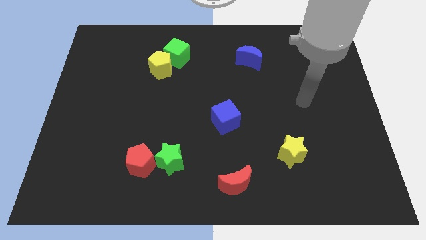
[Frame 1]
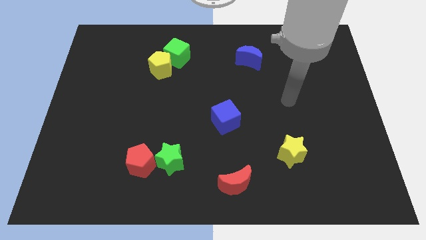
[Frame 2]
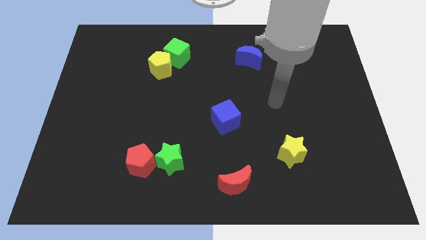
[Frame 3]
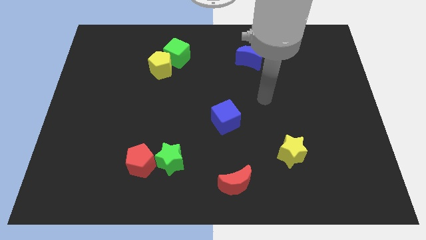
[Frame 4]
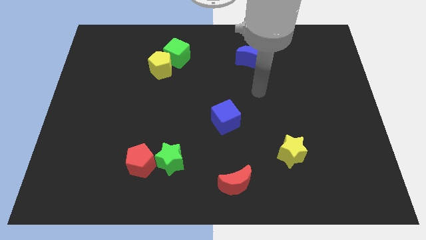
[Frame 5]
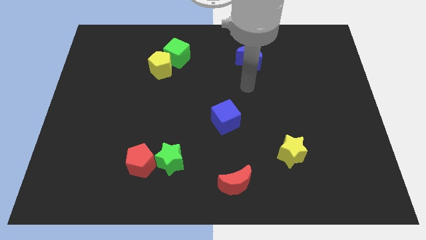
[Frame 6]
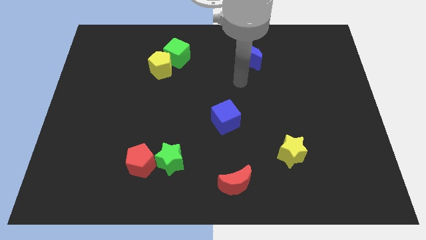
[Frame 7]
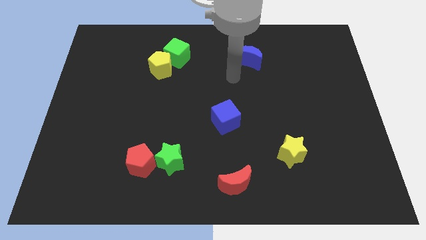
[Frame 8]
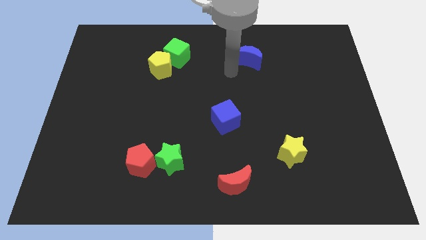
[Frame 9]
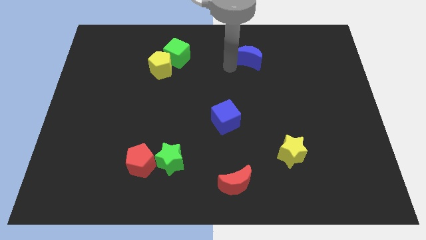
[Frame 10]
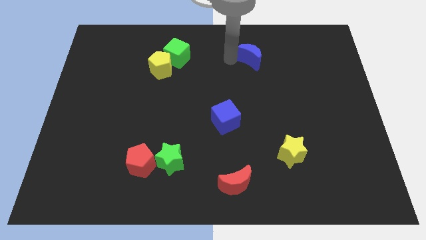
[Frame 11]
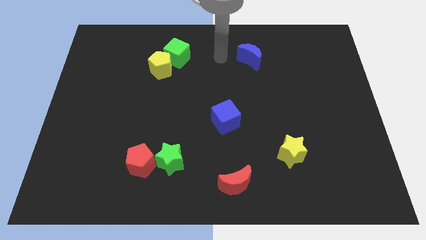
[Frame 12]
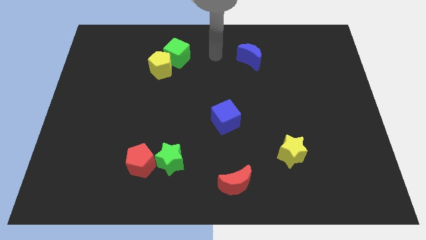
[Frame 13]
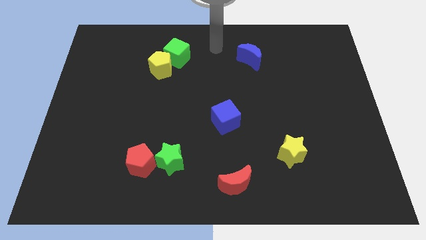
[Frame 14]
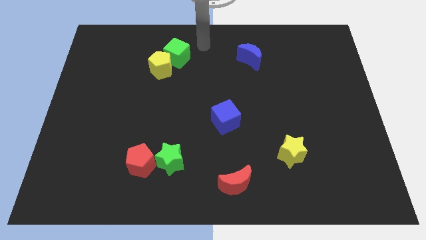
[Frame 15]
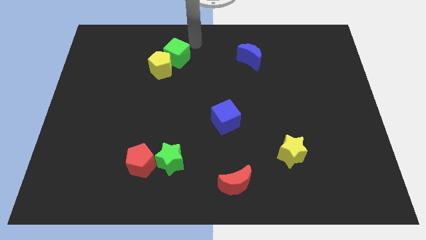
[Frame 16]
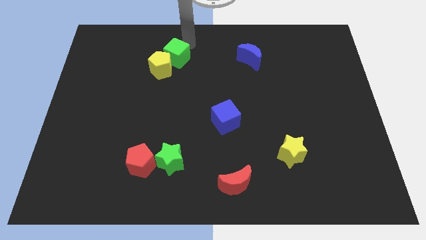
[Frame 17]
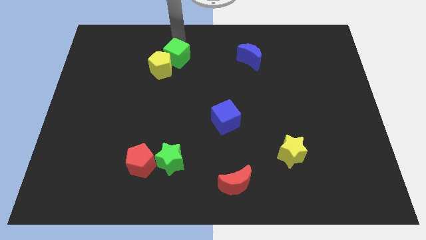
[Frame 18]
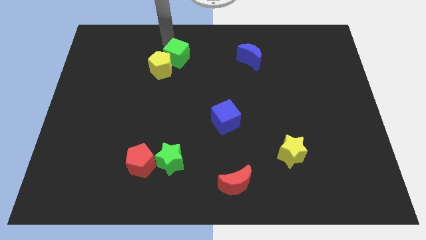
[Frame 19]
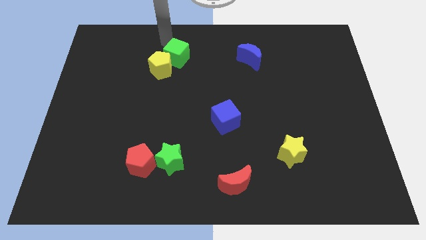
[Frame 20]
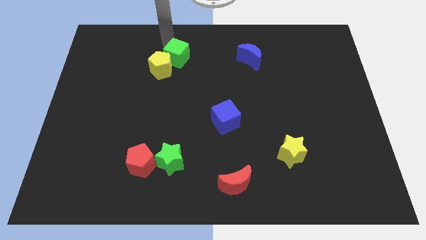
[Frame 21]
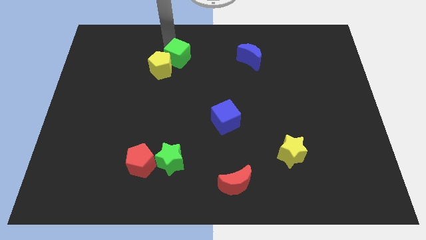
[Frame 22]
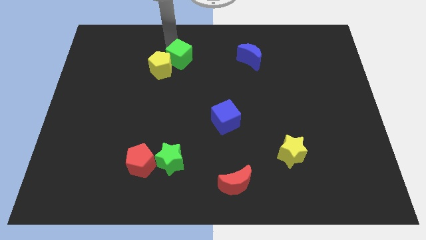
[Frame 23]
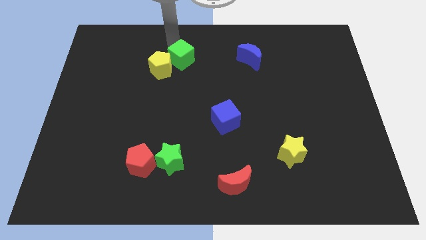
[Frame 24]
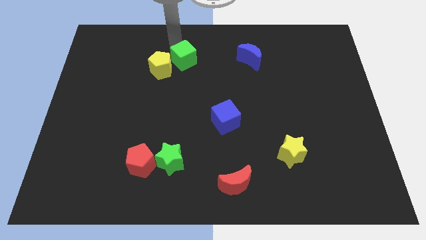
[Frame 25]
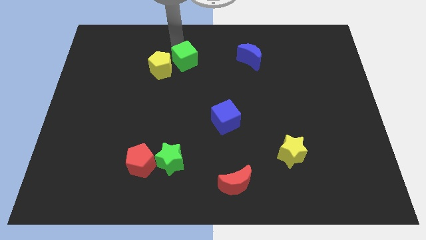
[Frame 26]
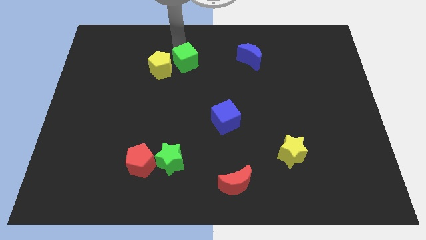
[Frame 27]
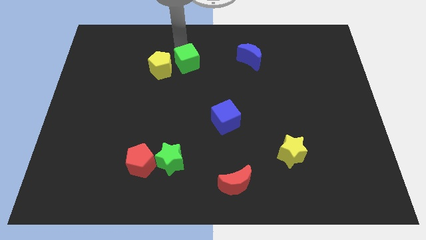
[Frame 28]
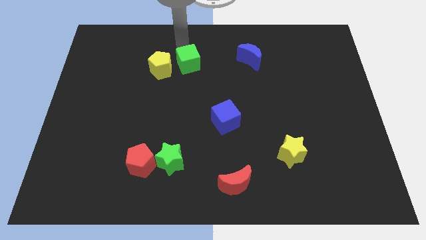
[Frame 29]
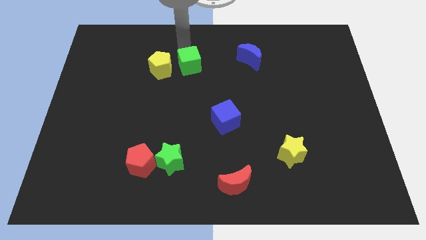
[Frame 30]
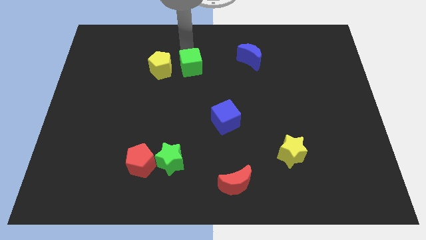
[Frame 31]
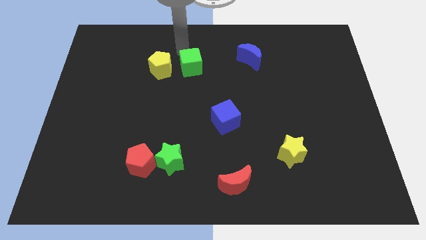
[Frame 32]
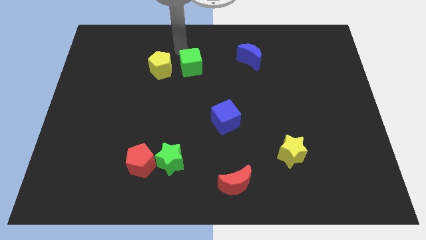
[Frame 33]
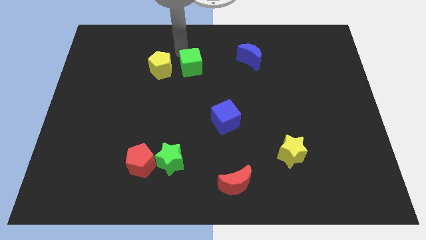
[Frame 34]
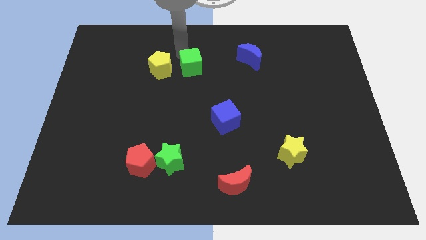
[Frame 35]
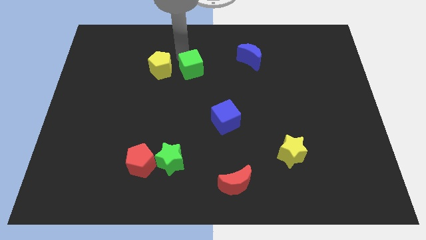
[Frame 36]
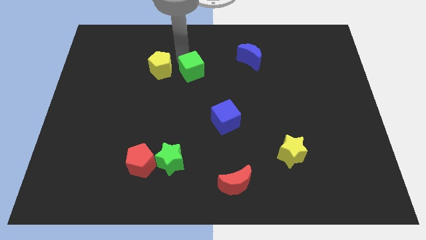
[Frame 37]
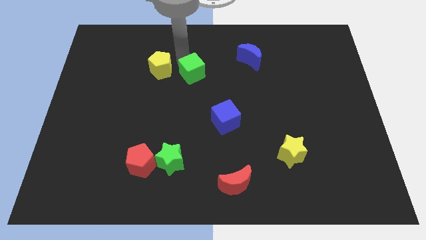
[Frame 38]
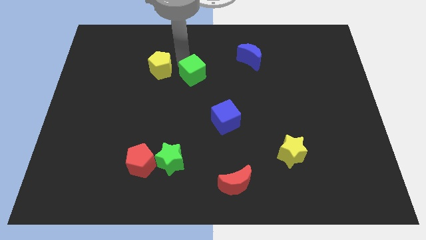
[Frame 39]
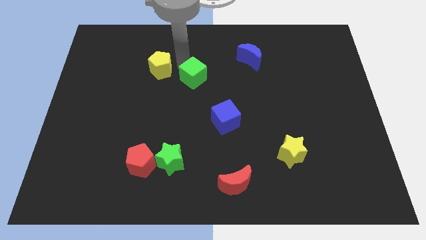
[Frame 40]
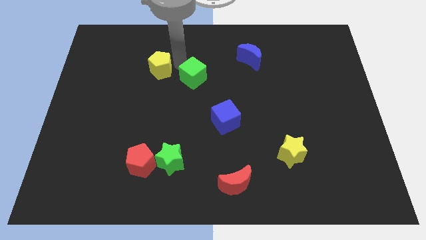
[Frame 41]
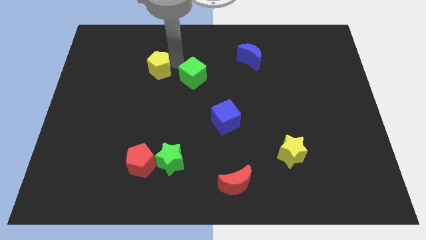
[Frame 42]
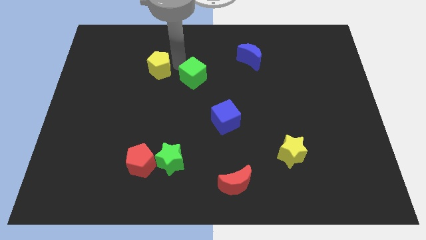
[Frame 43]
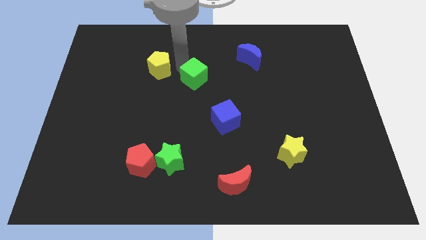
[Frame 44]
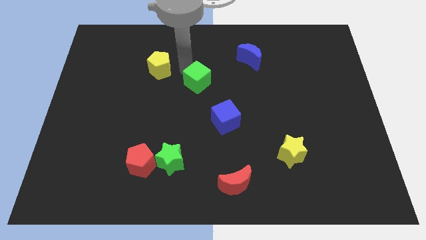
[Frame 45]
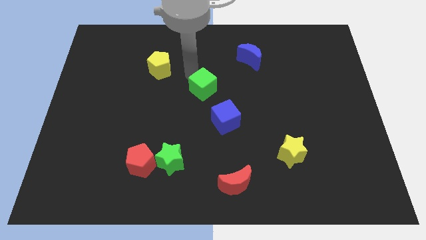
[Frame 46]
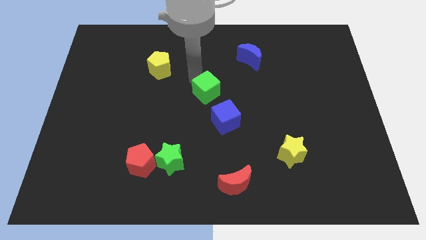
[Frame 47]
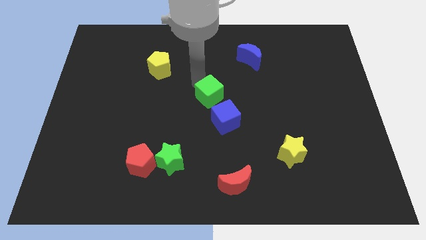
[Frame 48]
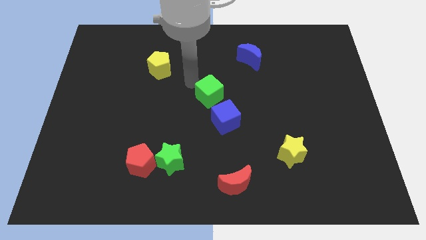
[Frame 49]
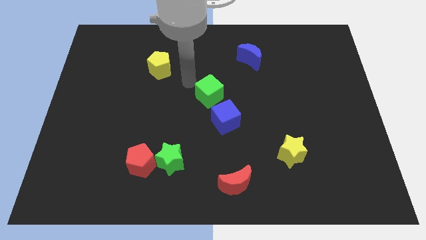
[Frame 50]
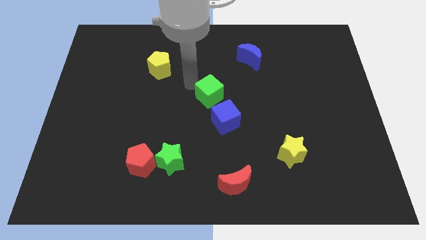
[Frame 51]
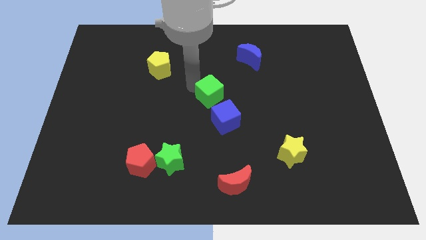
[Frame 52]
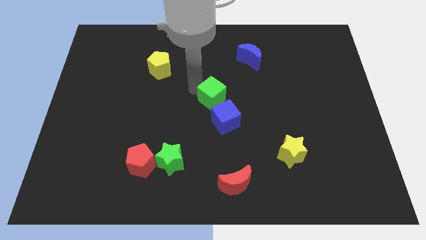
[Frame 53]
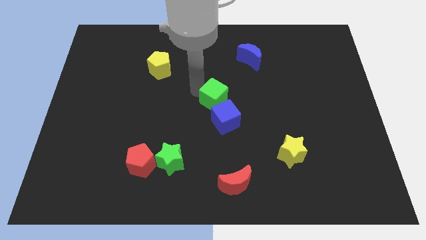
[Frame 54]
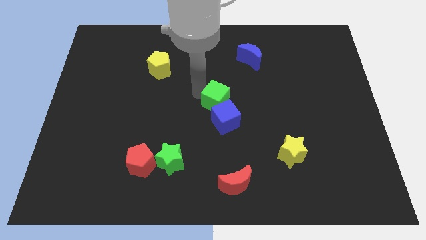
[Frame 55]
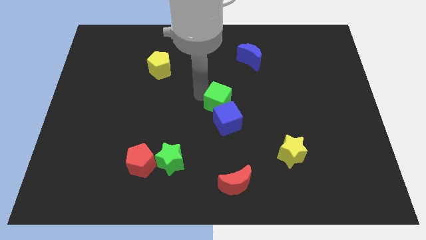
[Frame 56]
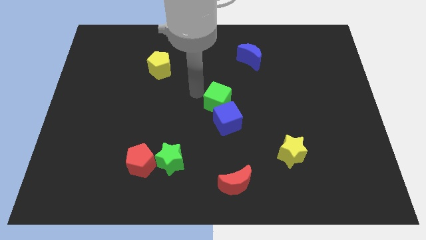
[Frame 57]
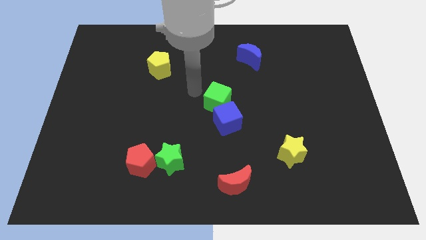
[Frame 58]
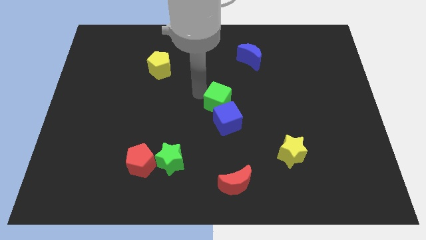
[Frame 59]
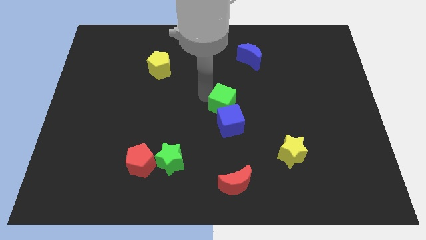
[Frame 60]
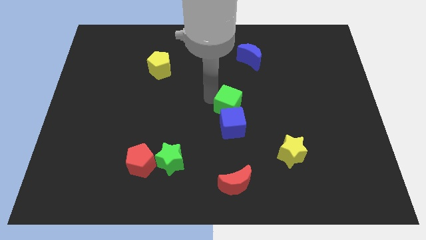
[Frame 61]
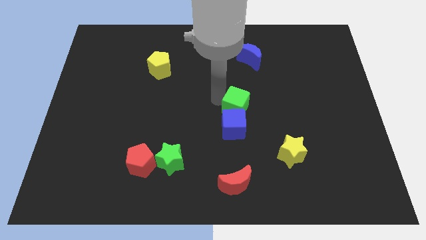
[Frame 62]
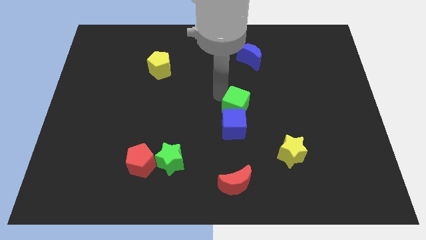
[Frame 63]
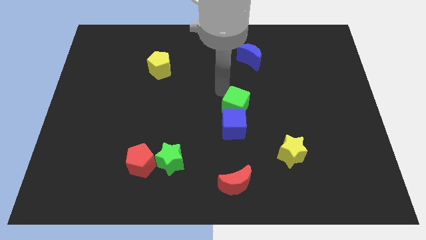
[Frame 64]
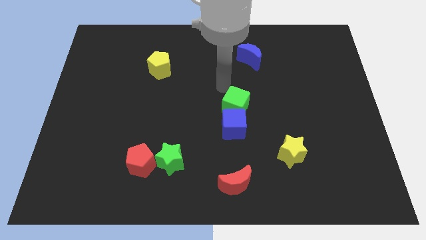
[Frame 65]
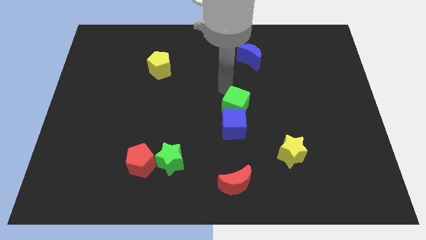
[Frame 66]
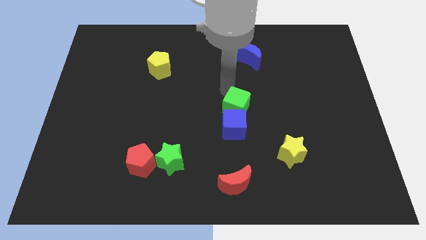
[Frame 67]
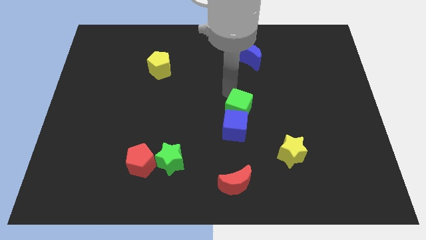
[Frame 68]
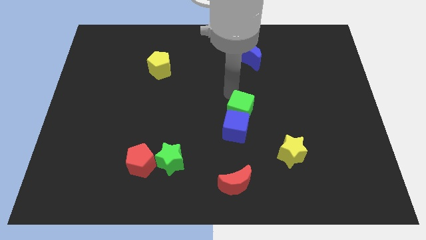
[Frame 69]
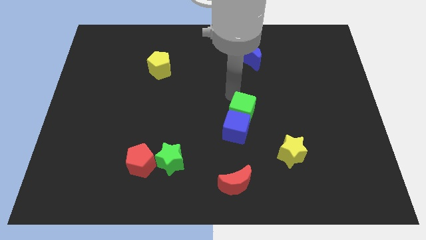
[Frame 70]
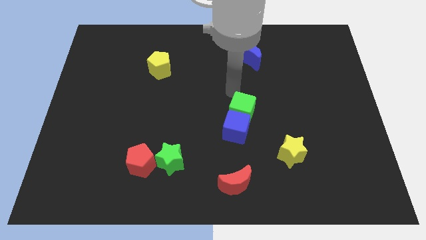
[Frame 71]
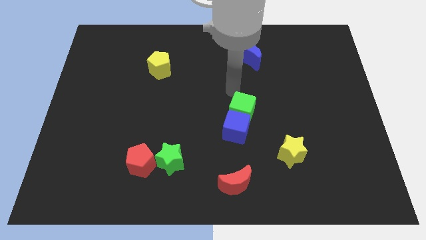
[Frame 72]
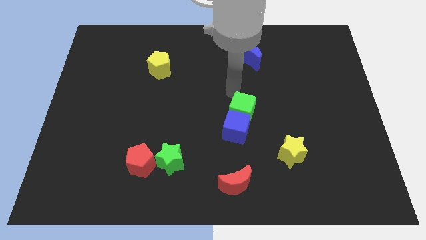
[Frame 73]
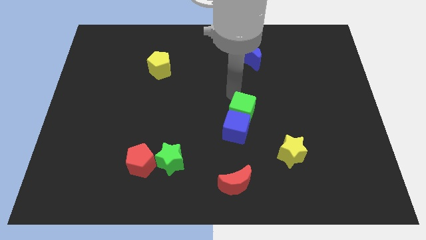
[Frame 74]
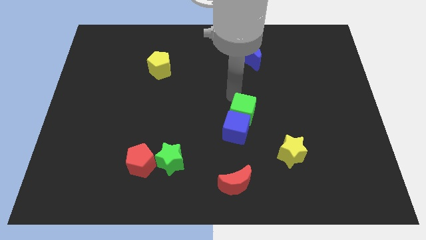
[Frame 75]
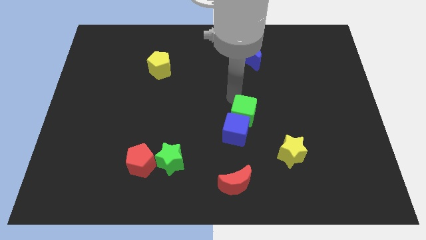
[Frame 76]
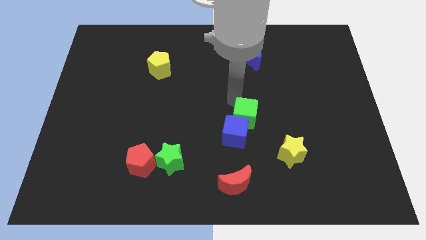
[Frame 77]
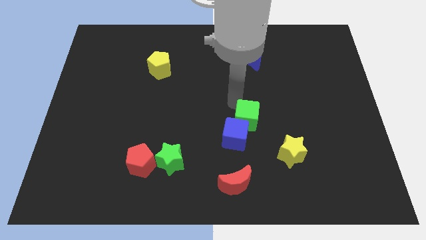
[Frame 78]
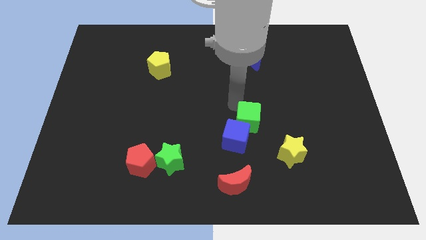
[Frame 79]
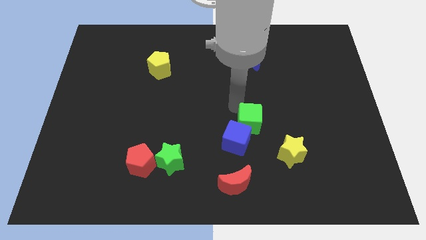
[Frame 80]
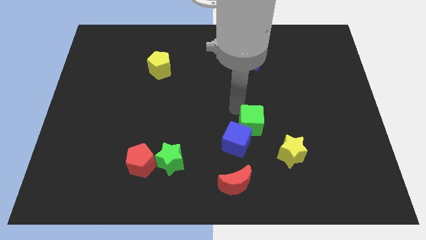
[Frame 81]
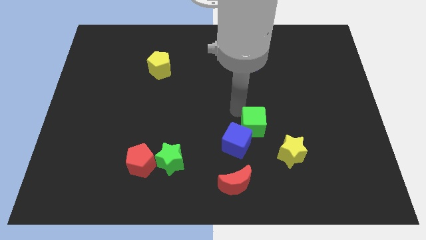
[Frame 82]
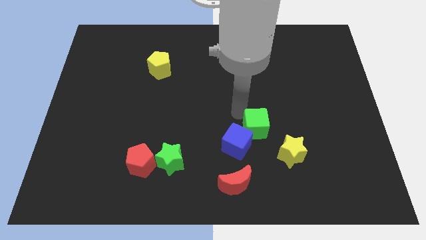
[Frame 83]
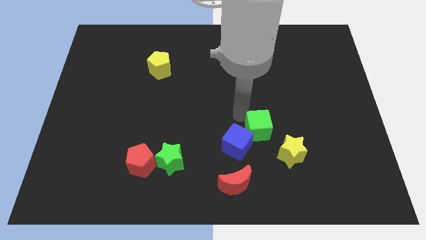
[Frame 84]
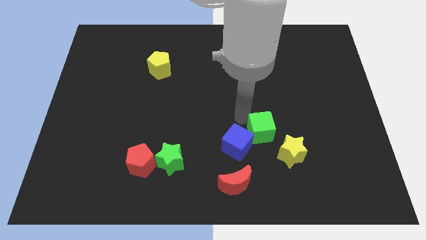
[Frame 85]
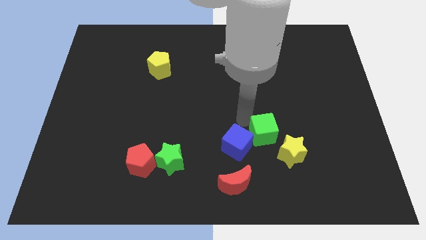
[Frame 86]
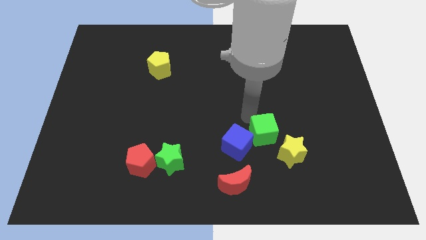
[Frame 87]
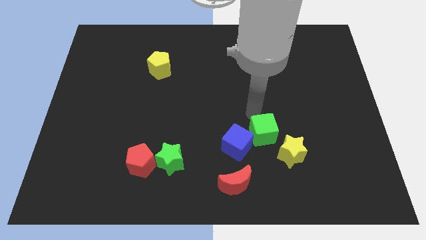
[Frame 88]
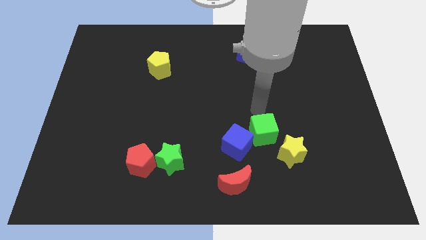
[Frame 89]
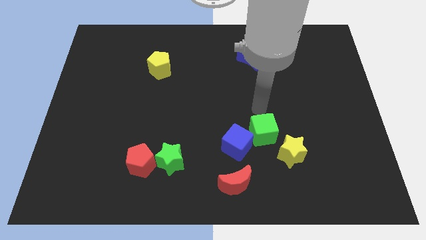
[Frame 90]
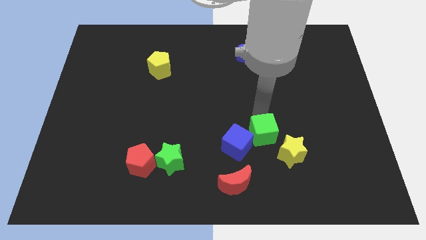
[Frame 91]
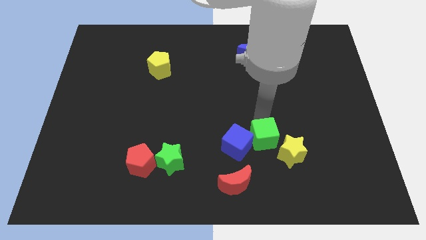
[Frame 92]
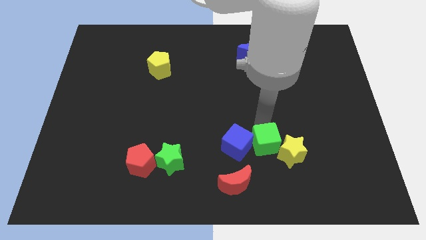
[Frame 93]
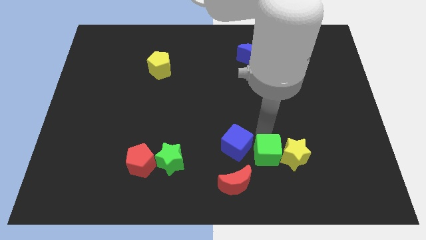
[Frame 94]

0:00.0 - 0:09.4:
slide the green cube to the bottom left of the yellow star
